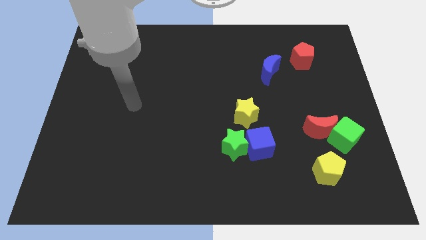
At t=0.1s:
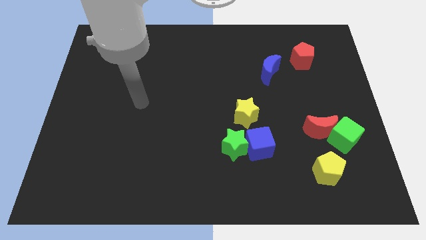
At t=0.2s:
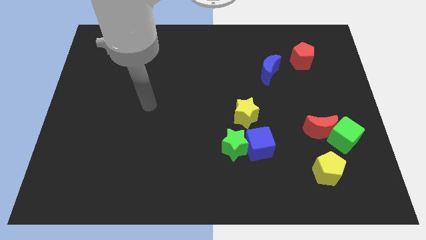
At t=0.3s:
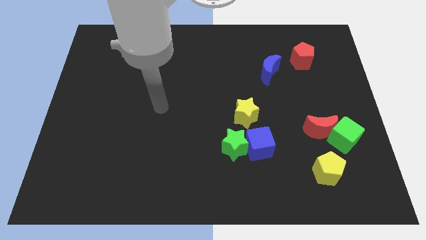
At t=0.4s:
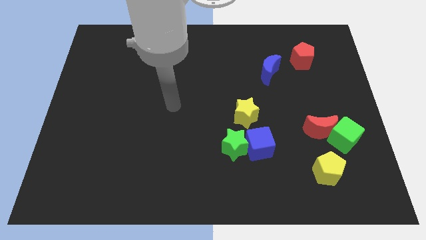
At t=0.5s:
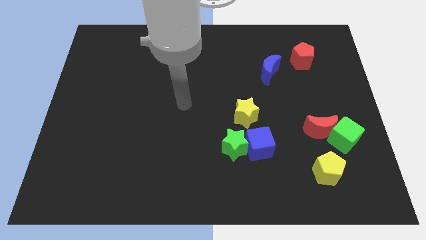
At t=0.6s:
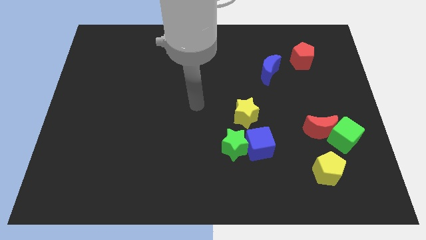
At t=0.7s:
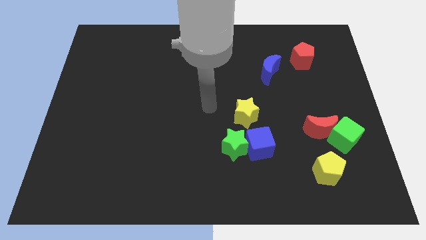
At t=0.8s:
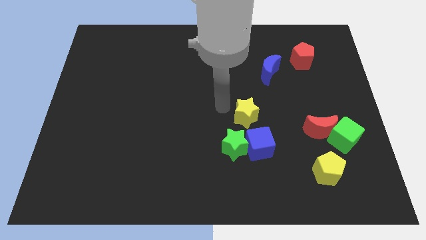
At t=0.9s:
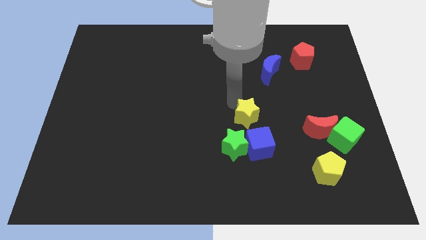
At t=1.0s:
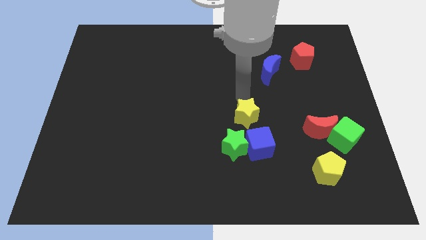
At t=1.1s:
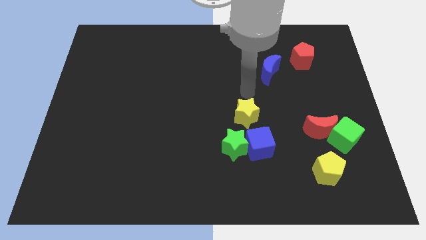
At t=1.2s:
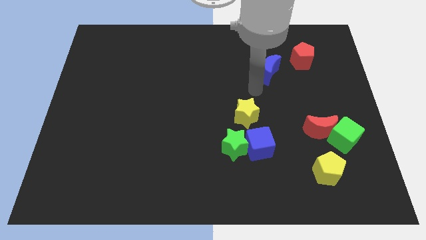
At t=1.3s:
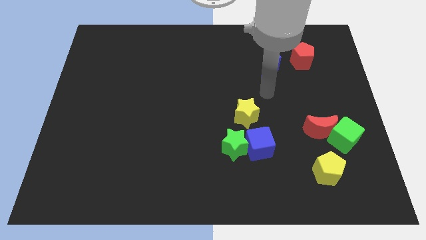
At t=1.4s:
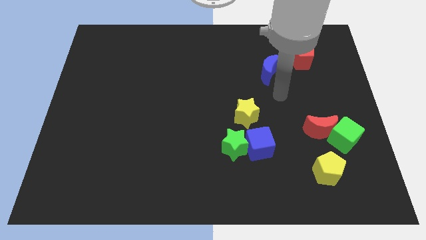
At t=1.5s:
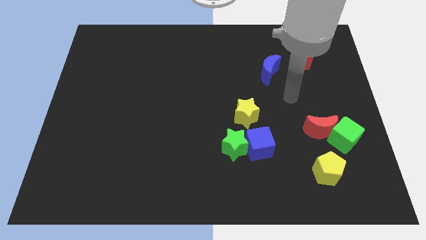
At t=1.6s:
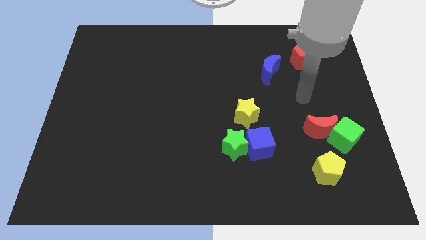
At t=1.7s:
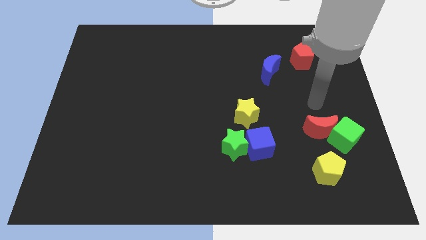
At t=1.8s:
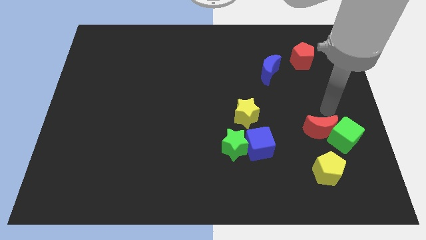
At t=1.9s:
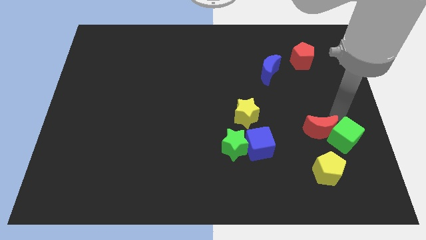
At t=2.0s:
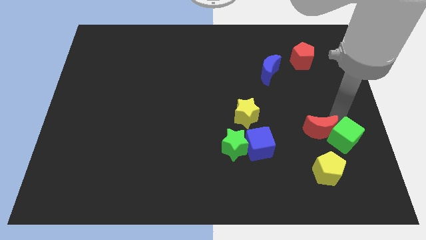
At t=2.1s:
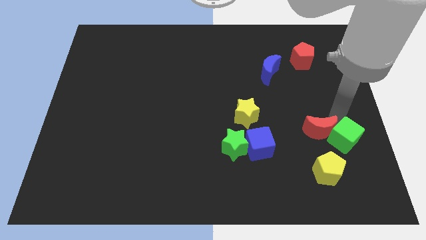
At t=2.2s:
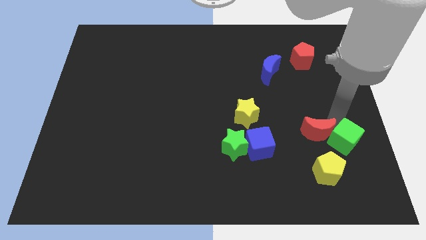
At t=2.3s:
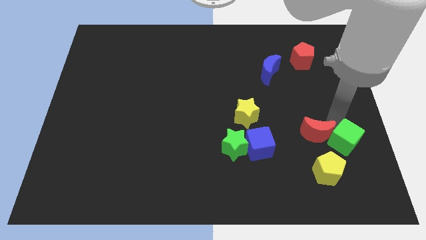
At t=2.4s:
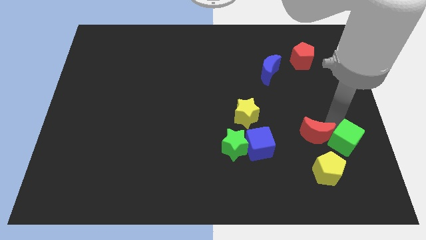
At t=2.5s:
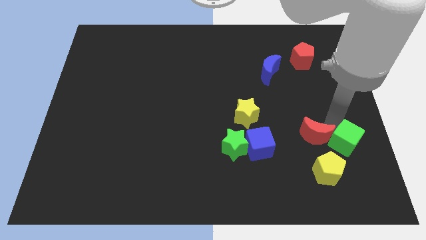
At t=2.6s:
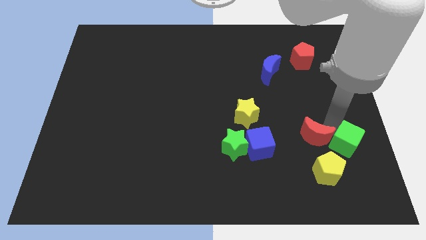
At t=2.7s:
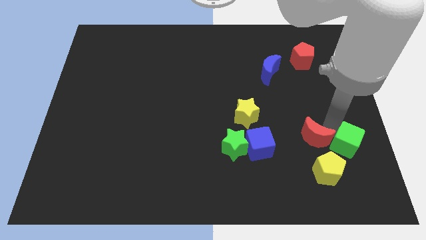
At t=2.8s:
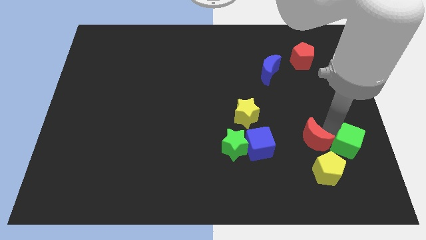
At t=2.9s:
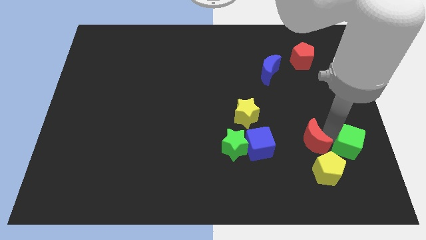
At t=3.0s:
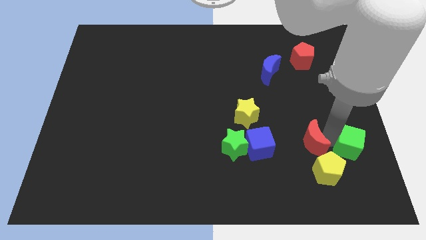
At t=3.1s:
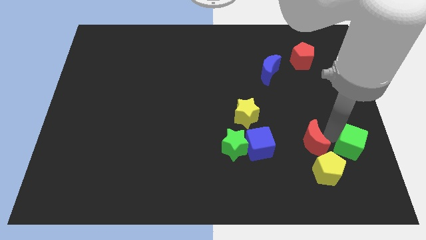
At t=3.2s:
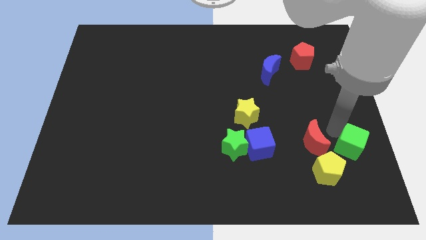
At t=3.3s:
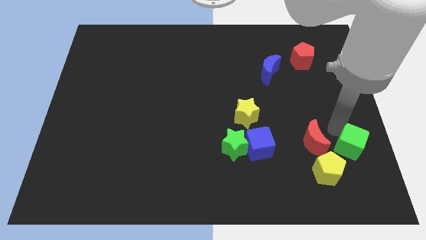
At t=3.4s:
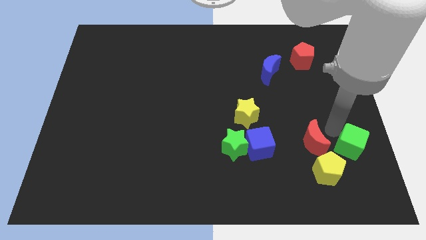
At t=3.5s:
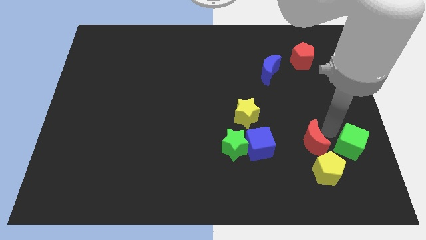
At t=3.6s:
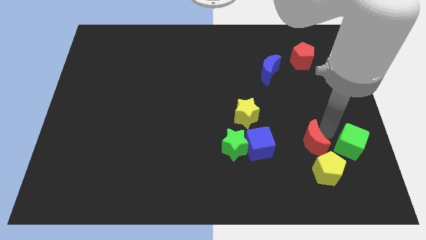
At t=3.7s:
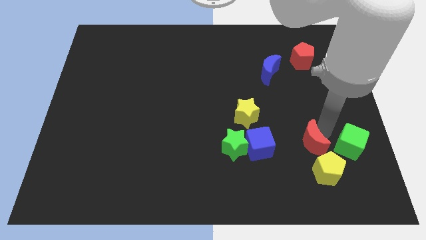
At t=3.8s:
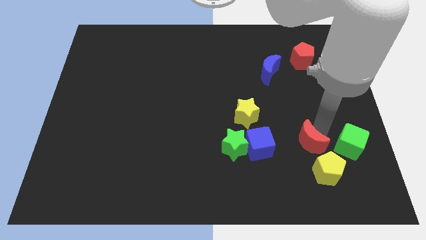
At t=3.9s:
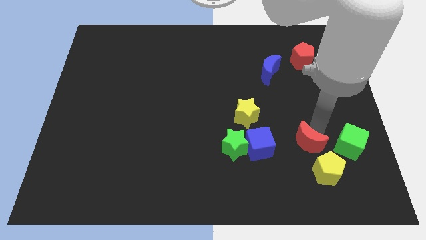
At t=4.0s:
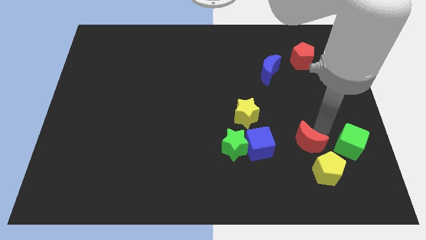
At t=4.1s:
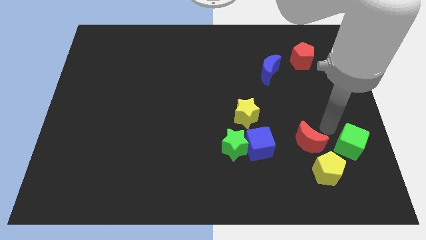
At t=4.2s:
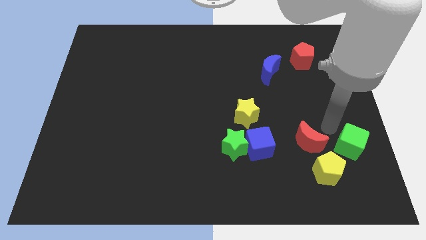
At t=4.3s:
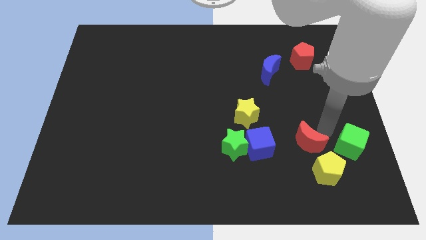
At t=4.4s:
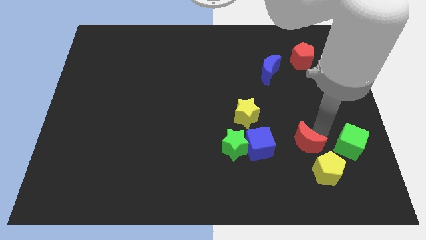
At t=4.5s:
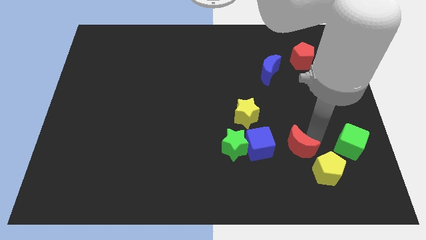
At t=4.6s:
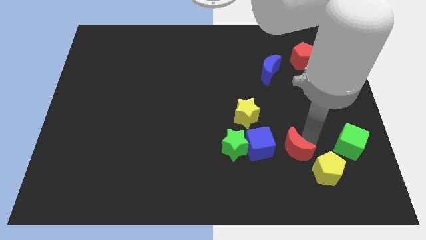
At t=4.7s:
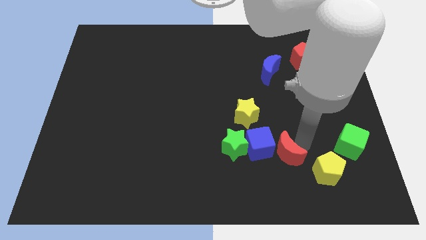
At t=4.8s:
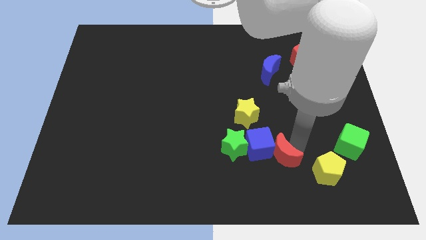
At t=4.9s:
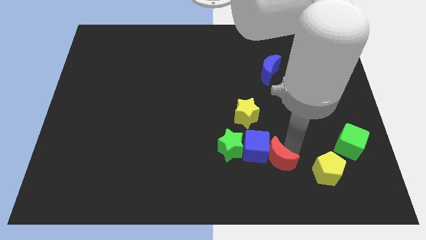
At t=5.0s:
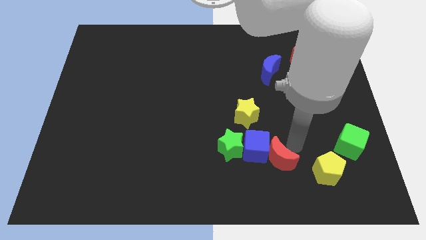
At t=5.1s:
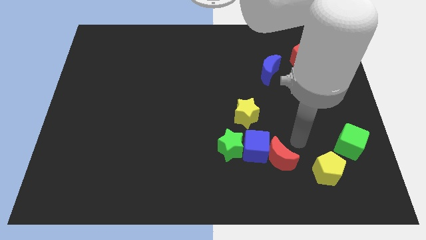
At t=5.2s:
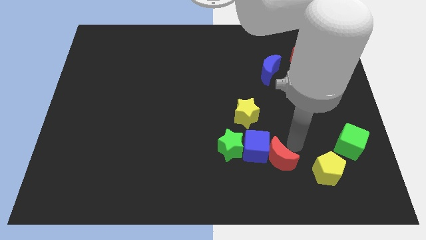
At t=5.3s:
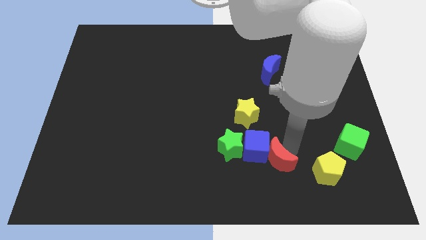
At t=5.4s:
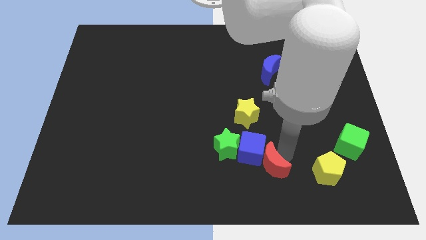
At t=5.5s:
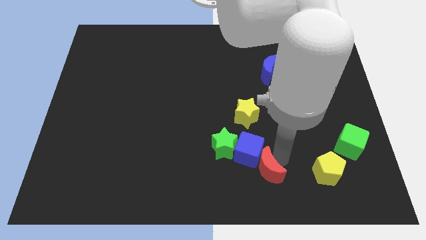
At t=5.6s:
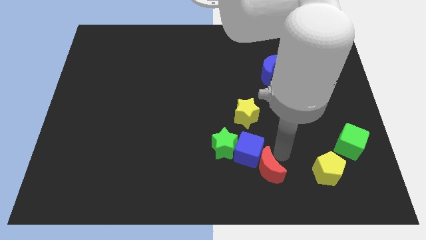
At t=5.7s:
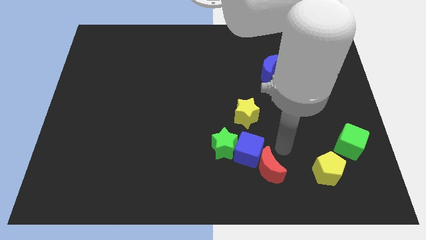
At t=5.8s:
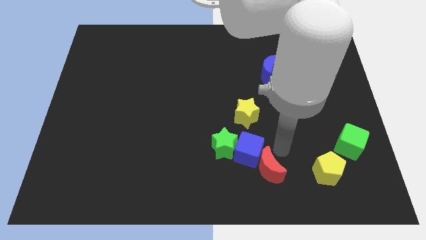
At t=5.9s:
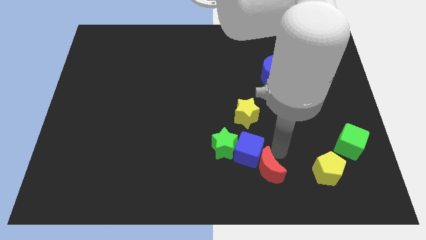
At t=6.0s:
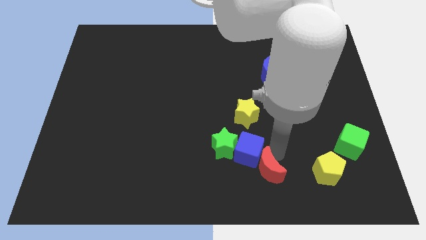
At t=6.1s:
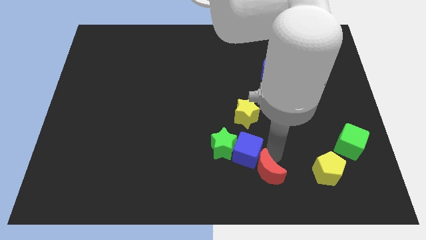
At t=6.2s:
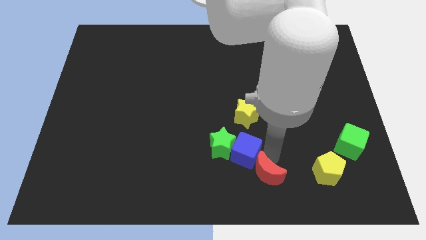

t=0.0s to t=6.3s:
push the red moon to the bottom side

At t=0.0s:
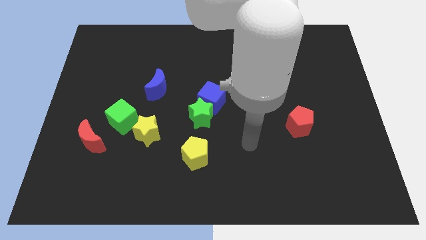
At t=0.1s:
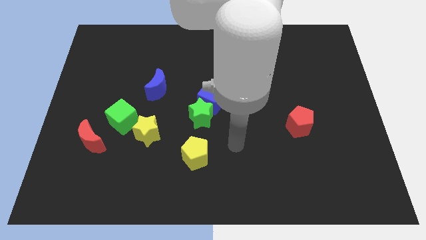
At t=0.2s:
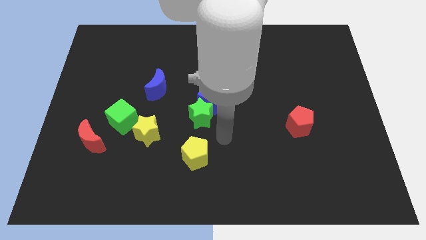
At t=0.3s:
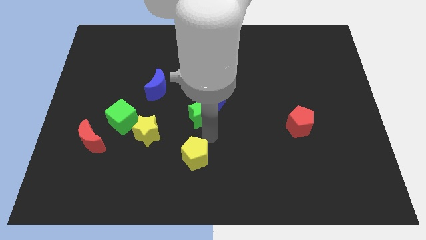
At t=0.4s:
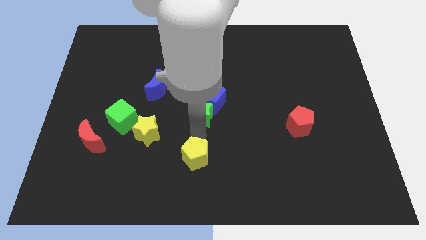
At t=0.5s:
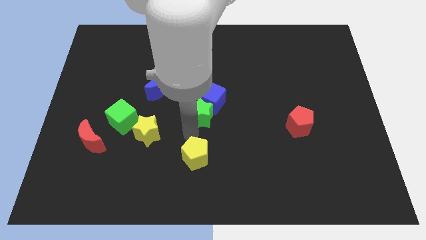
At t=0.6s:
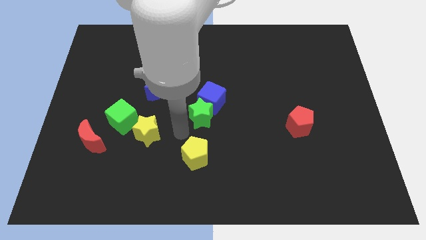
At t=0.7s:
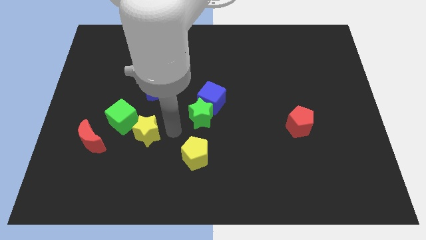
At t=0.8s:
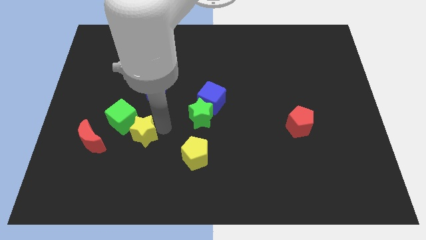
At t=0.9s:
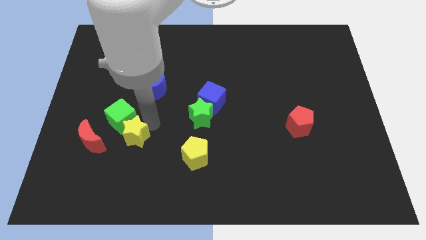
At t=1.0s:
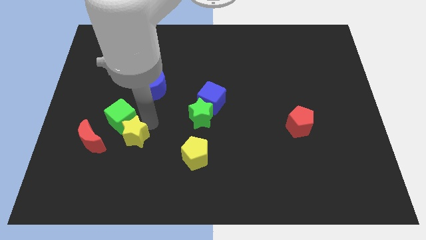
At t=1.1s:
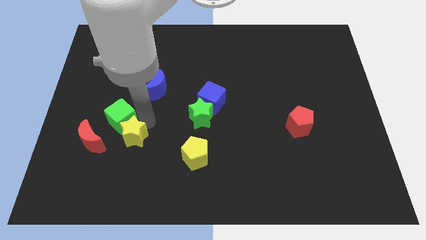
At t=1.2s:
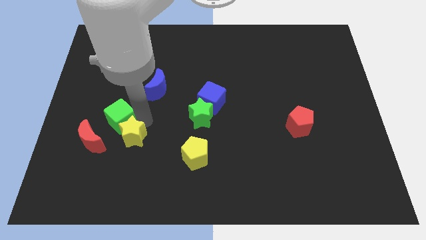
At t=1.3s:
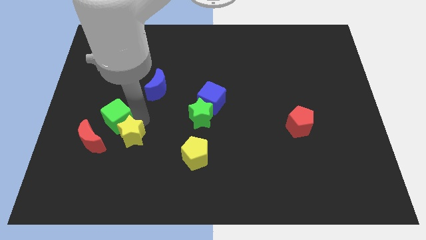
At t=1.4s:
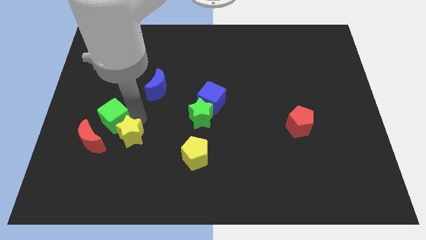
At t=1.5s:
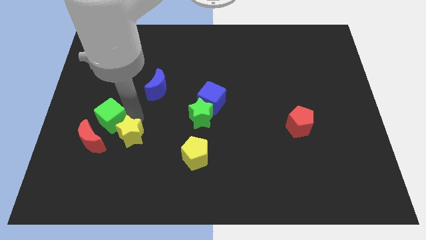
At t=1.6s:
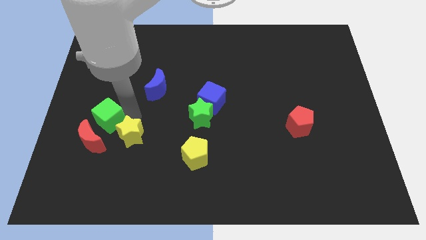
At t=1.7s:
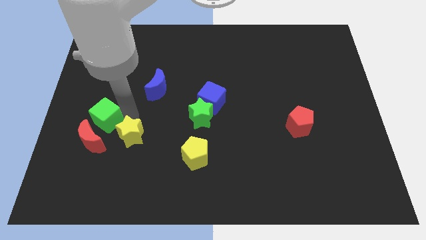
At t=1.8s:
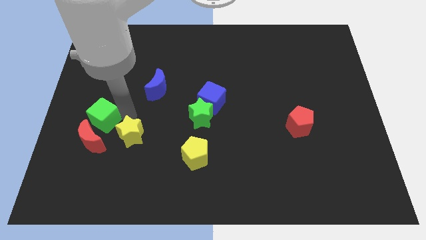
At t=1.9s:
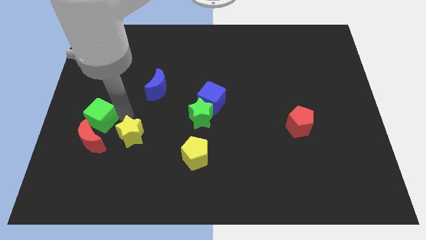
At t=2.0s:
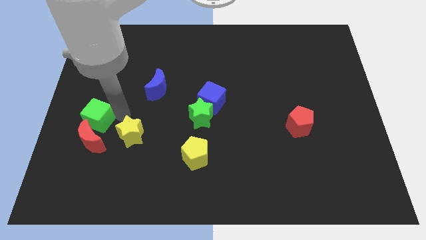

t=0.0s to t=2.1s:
put the green cube to the center left
